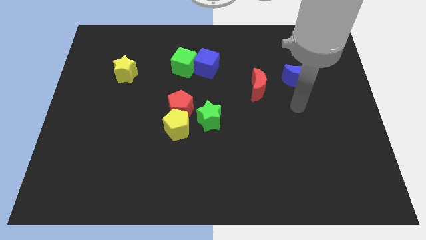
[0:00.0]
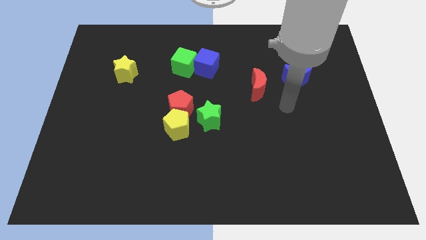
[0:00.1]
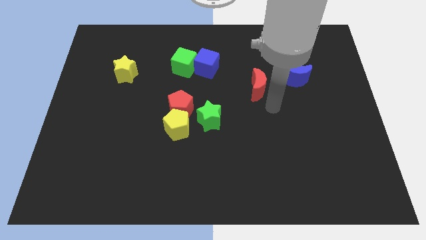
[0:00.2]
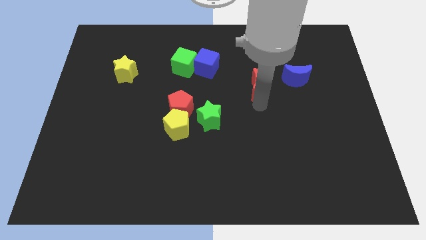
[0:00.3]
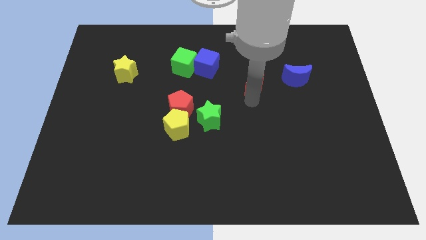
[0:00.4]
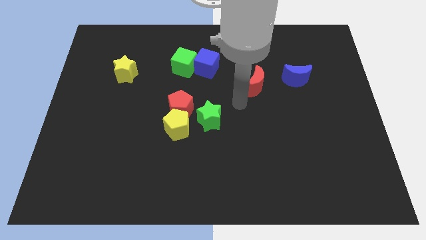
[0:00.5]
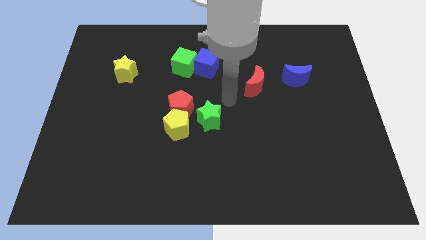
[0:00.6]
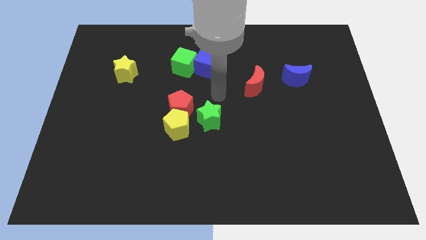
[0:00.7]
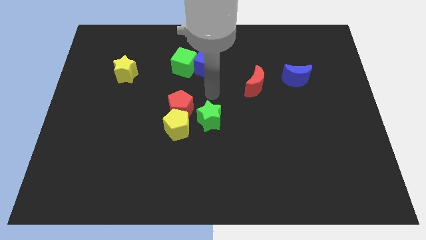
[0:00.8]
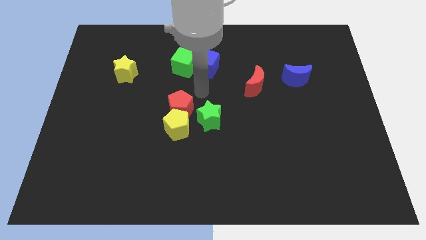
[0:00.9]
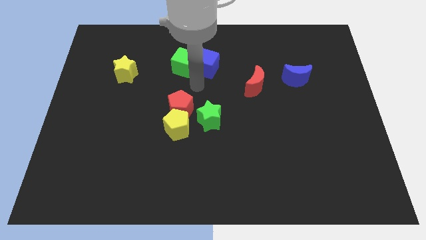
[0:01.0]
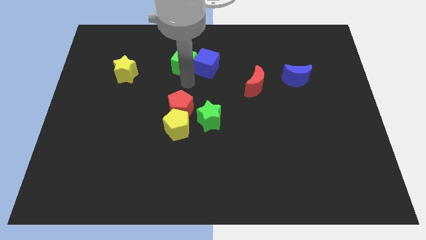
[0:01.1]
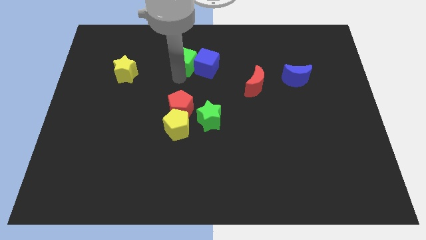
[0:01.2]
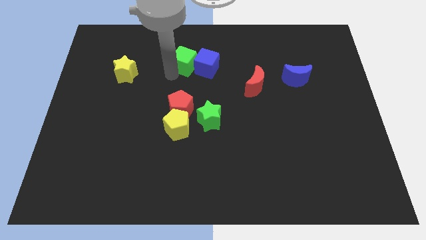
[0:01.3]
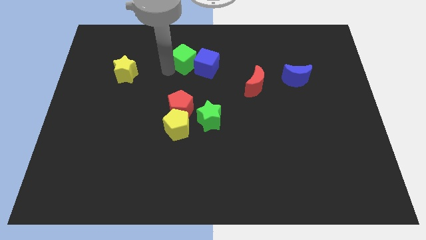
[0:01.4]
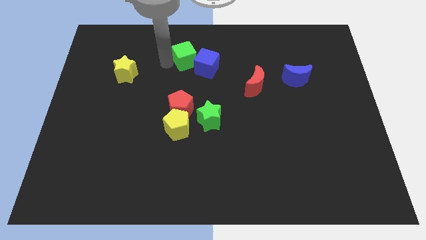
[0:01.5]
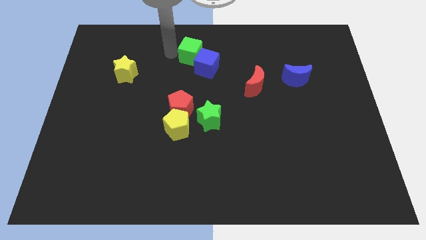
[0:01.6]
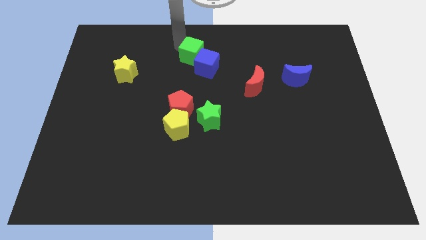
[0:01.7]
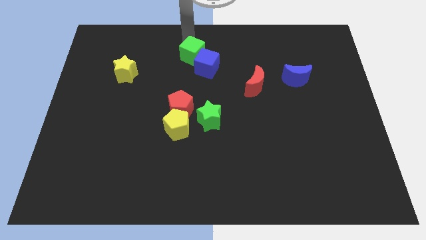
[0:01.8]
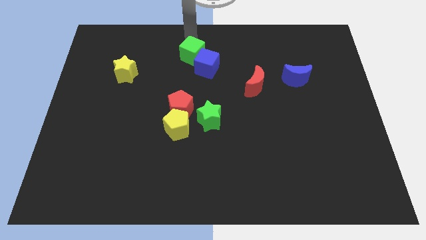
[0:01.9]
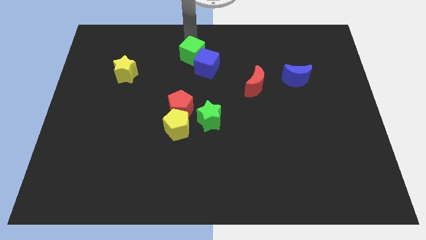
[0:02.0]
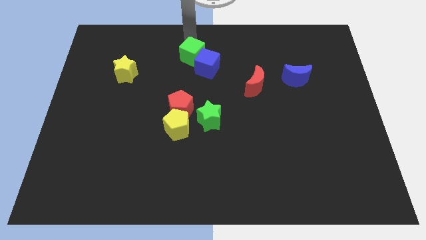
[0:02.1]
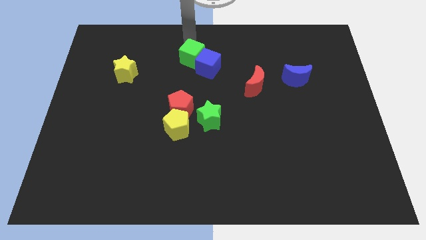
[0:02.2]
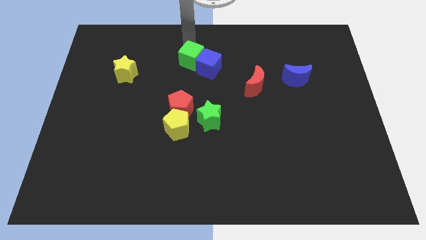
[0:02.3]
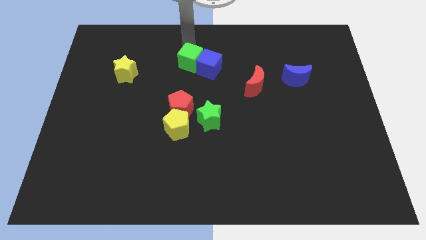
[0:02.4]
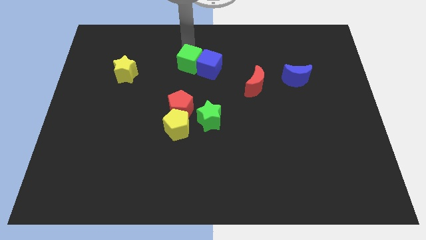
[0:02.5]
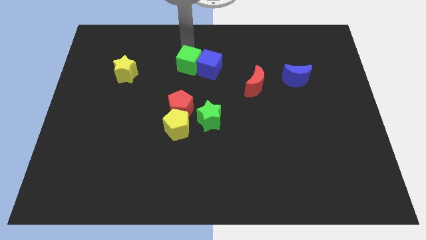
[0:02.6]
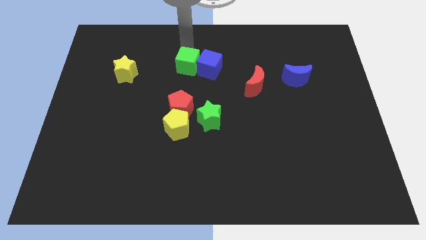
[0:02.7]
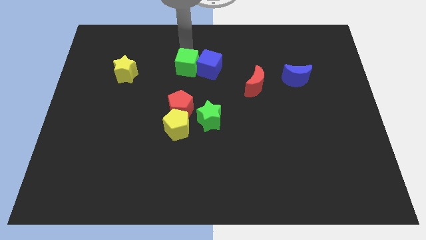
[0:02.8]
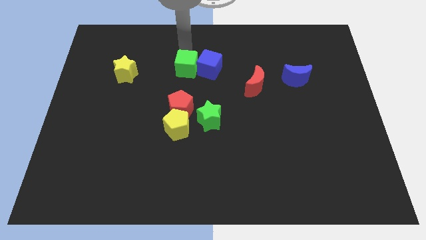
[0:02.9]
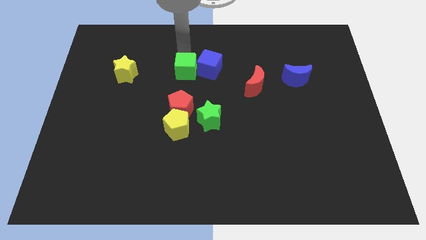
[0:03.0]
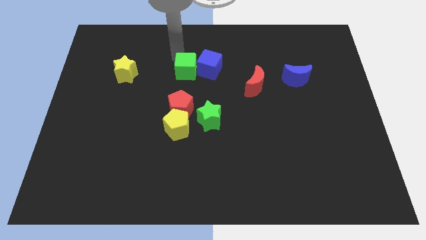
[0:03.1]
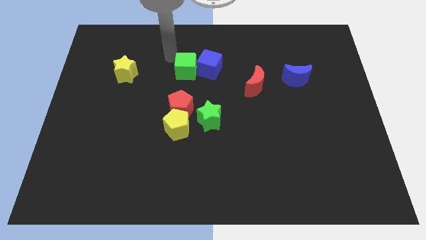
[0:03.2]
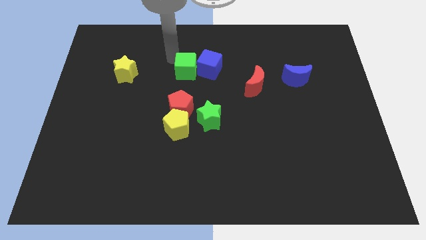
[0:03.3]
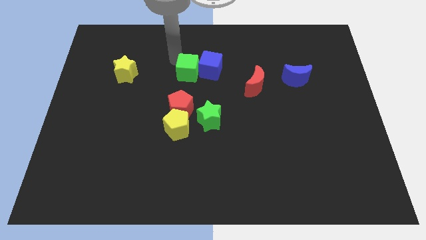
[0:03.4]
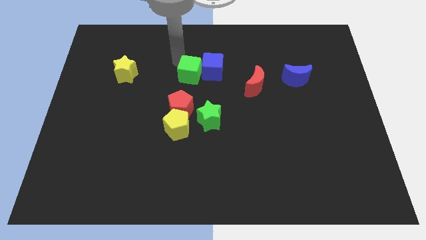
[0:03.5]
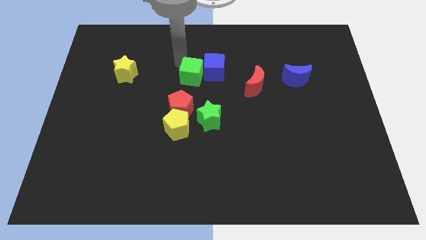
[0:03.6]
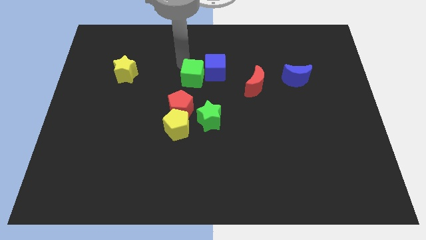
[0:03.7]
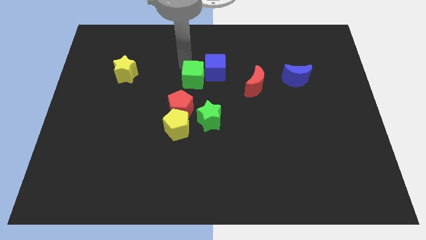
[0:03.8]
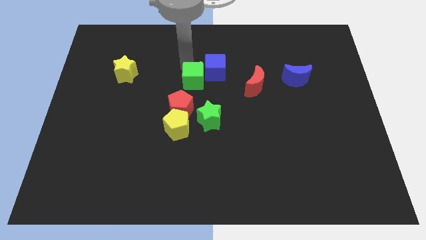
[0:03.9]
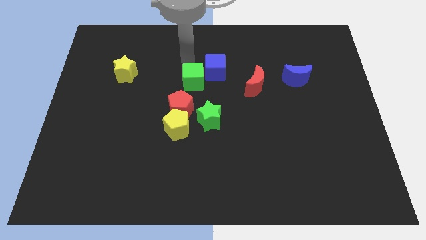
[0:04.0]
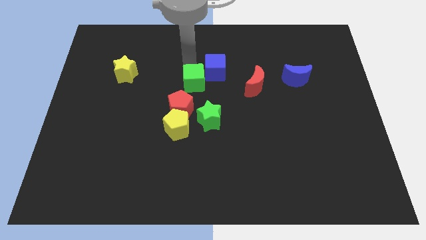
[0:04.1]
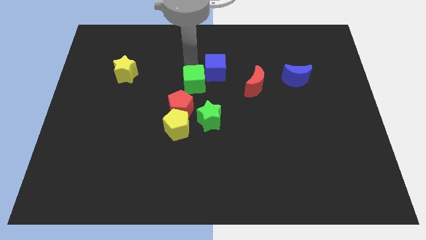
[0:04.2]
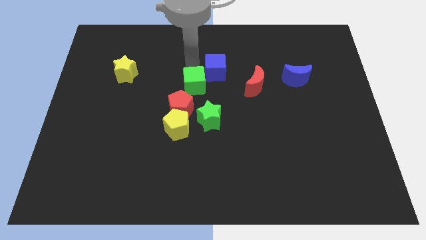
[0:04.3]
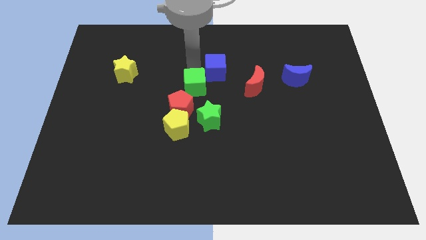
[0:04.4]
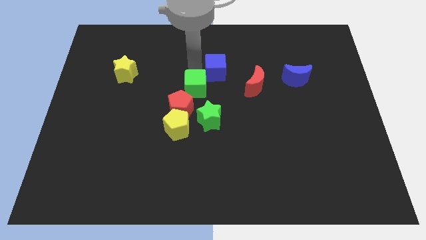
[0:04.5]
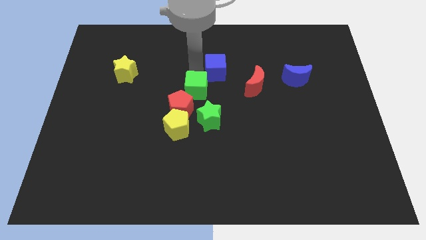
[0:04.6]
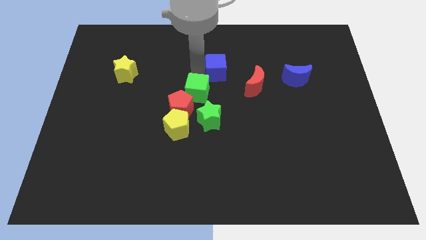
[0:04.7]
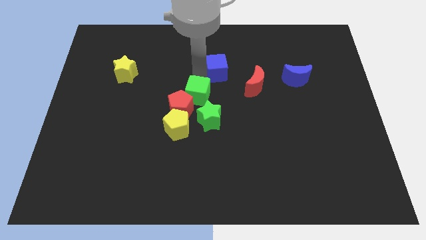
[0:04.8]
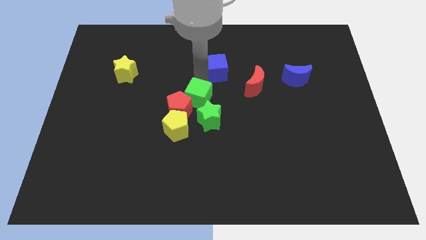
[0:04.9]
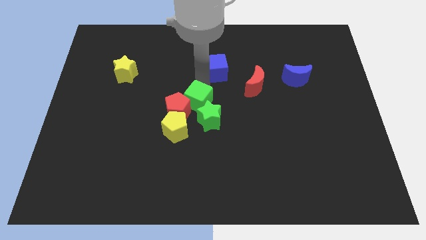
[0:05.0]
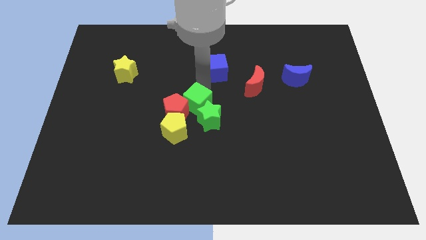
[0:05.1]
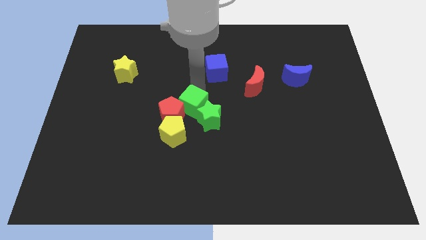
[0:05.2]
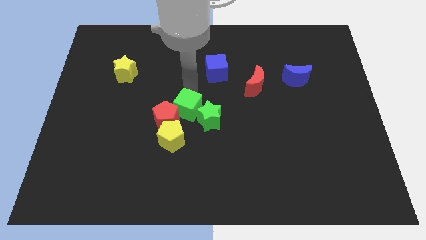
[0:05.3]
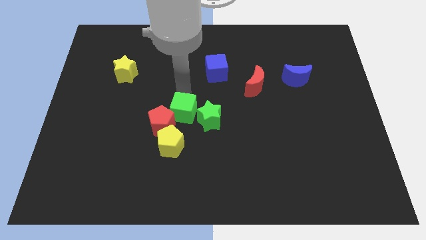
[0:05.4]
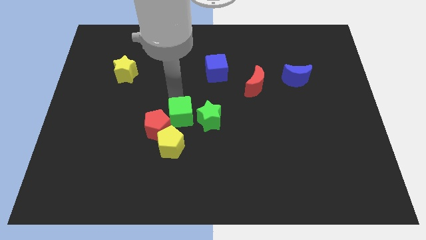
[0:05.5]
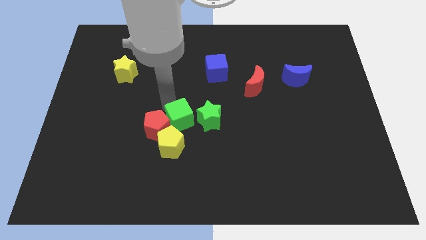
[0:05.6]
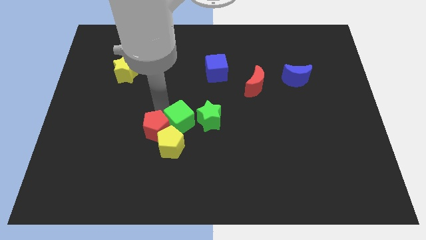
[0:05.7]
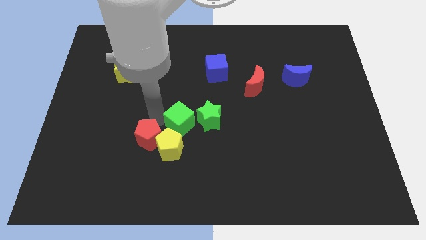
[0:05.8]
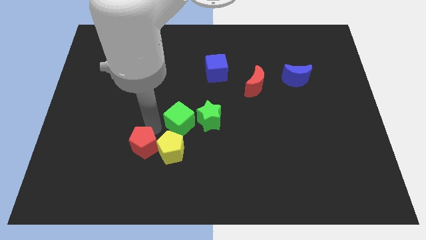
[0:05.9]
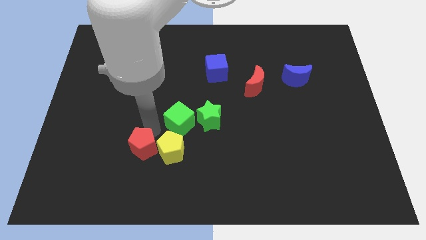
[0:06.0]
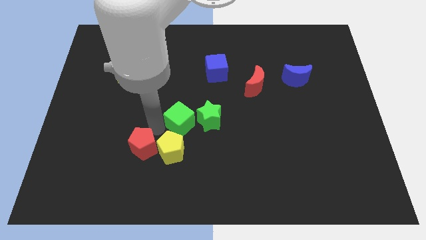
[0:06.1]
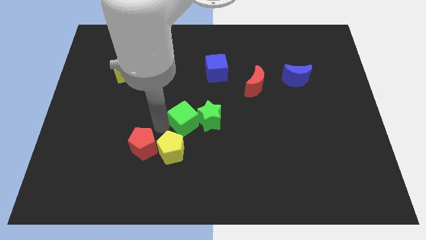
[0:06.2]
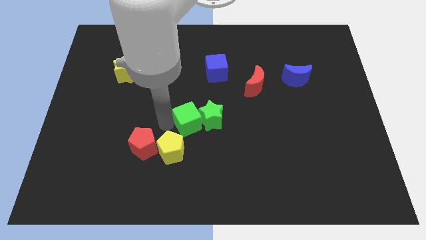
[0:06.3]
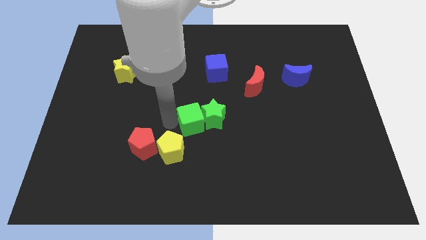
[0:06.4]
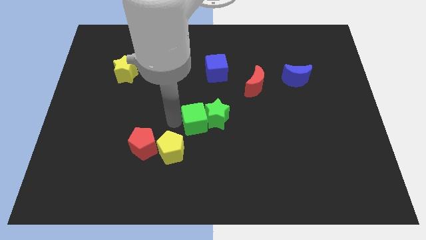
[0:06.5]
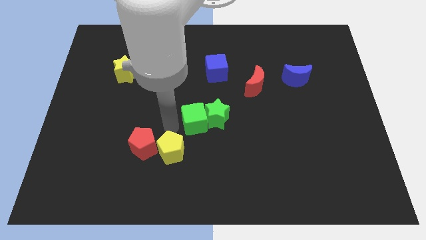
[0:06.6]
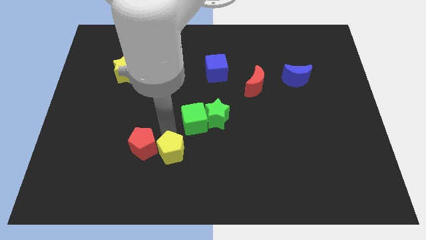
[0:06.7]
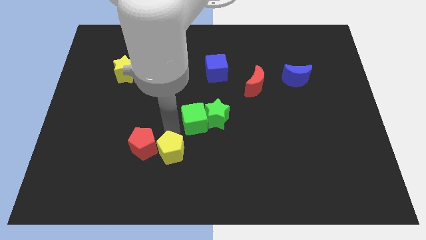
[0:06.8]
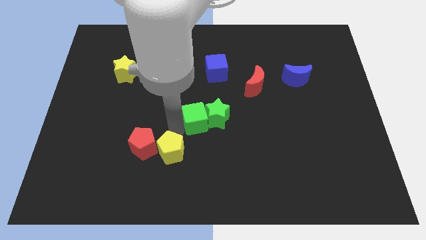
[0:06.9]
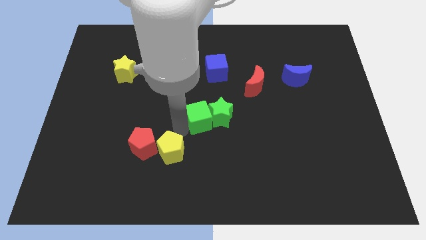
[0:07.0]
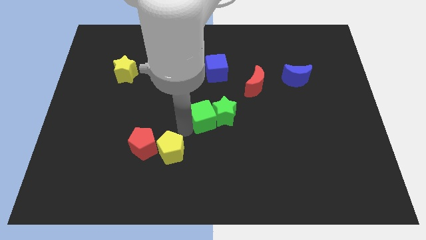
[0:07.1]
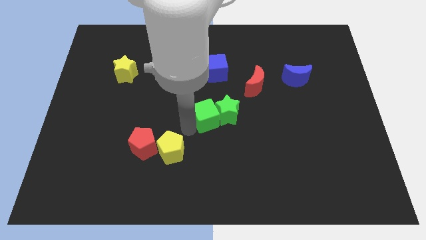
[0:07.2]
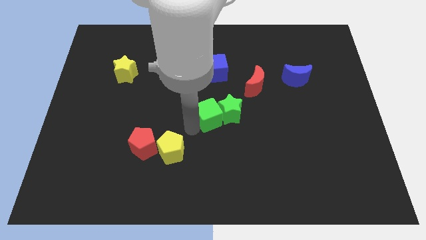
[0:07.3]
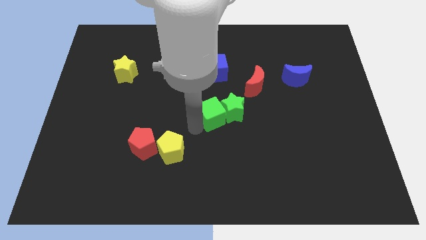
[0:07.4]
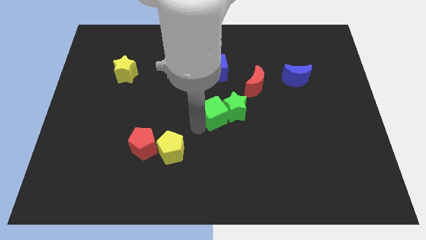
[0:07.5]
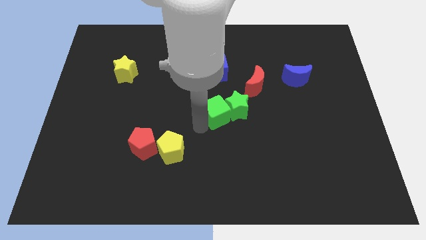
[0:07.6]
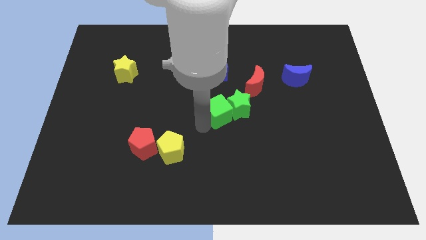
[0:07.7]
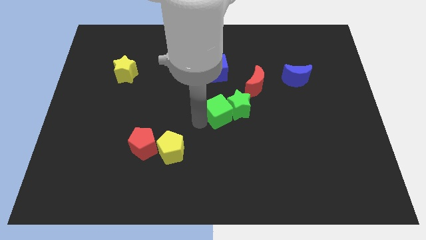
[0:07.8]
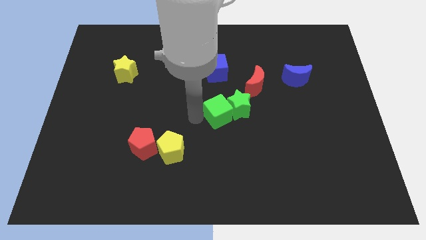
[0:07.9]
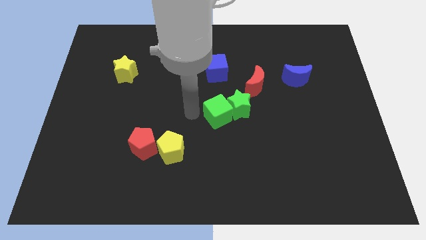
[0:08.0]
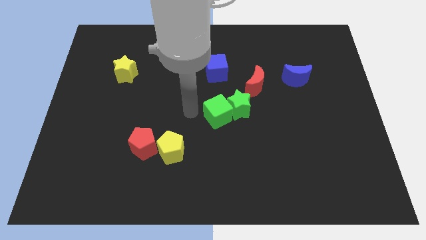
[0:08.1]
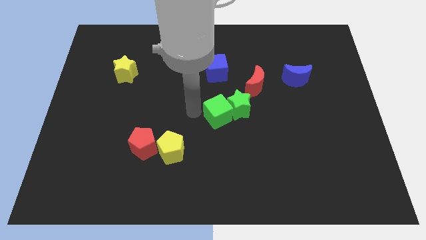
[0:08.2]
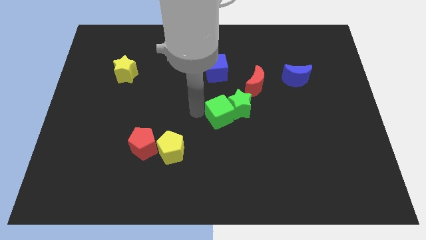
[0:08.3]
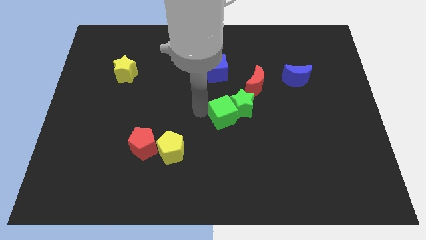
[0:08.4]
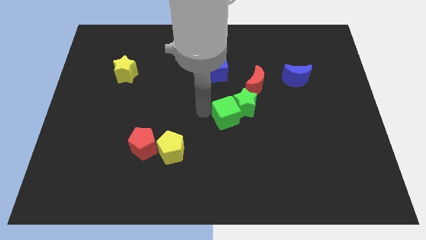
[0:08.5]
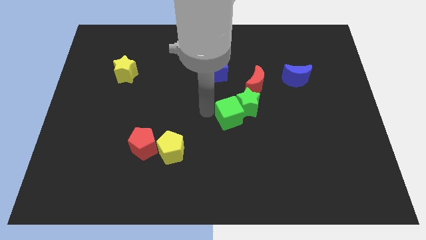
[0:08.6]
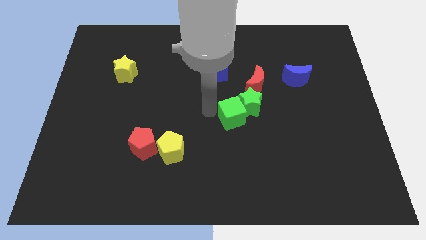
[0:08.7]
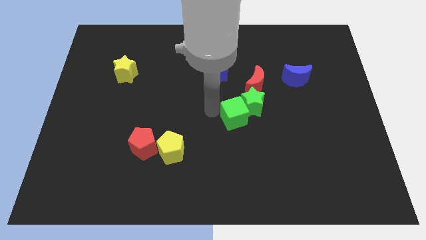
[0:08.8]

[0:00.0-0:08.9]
move the green cube diagonally down and right
